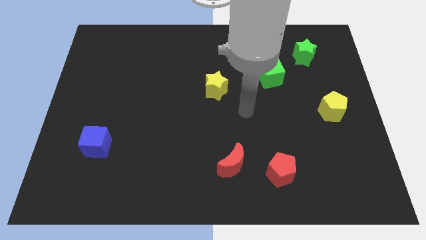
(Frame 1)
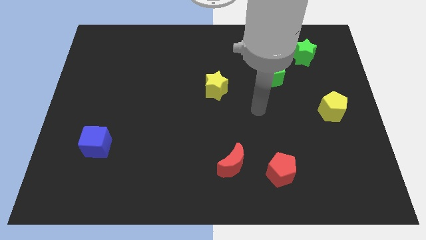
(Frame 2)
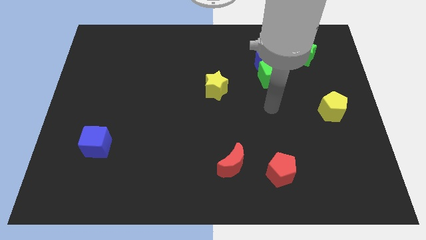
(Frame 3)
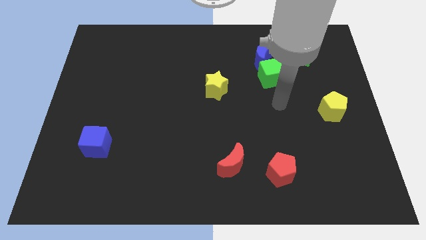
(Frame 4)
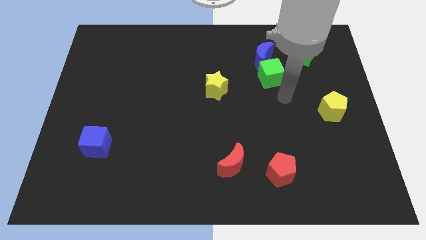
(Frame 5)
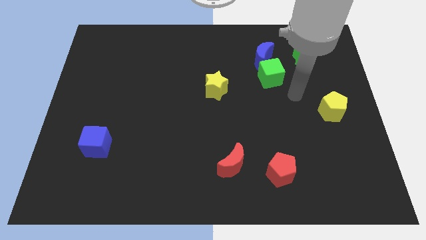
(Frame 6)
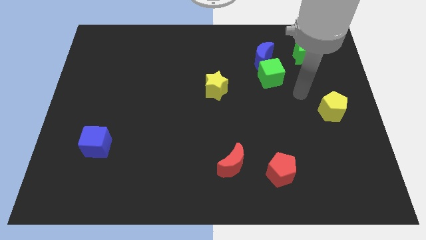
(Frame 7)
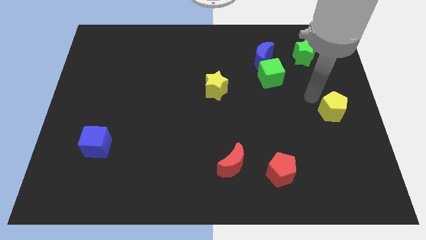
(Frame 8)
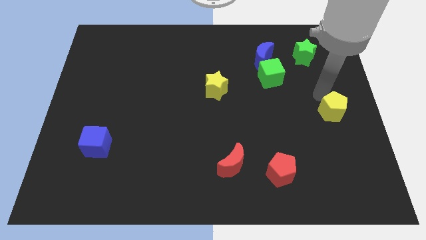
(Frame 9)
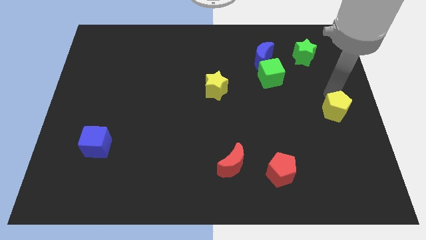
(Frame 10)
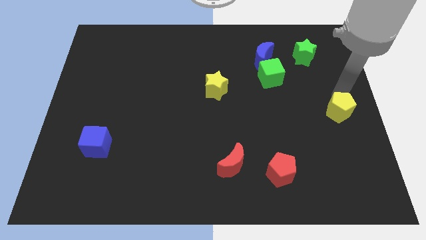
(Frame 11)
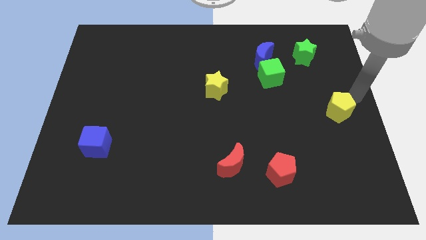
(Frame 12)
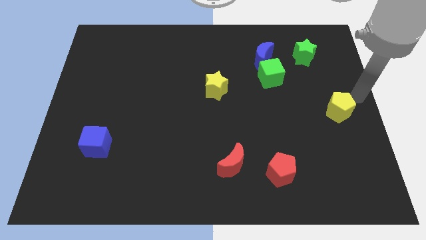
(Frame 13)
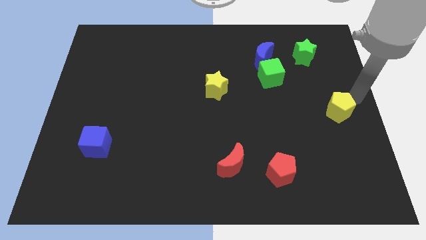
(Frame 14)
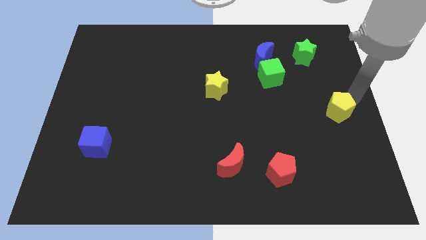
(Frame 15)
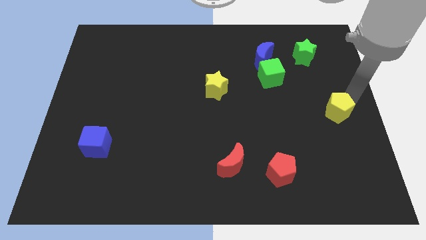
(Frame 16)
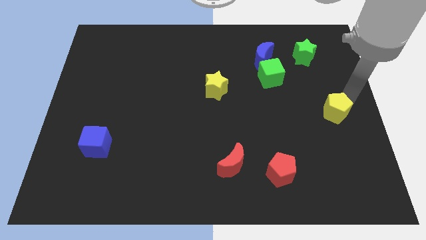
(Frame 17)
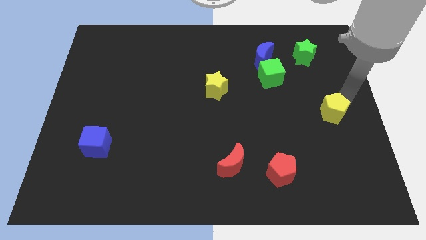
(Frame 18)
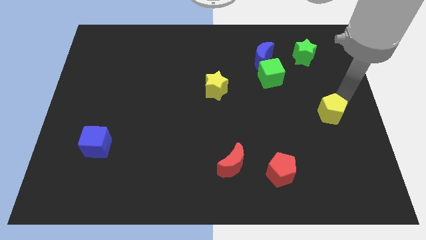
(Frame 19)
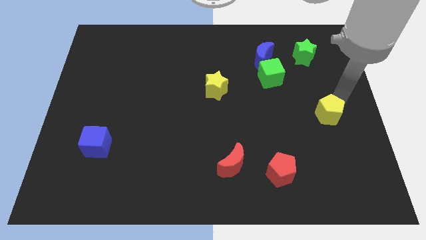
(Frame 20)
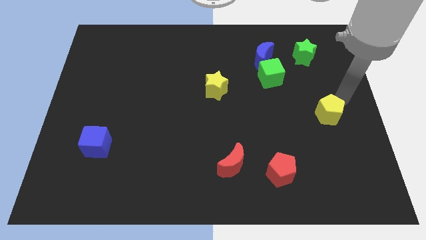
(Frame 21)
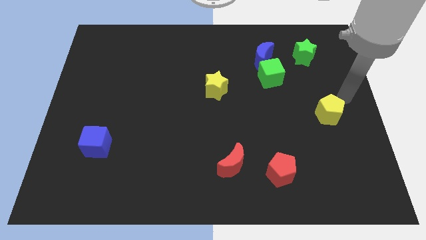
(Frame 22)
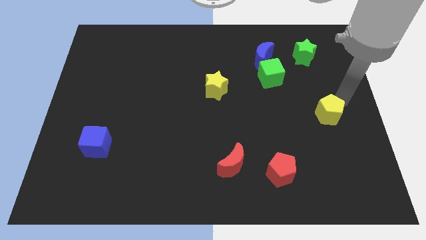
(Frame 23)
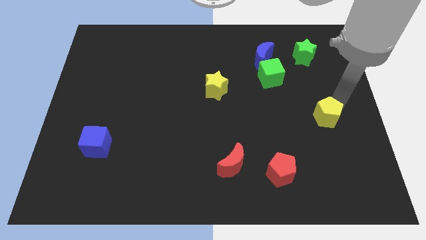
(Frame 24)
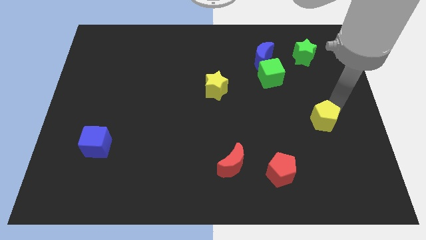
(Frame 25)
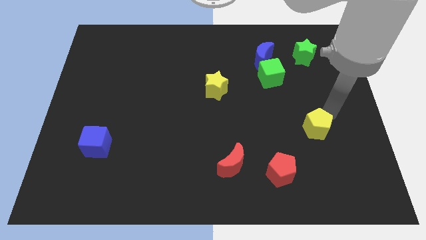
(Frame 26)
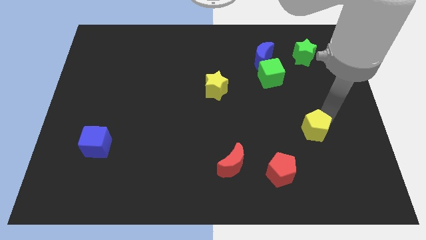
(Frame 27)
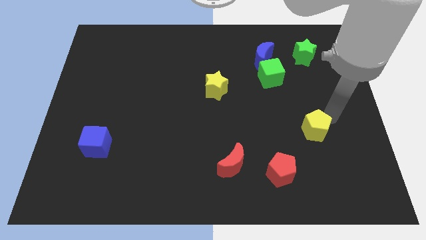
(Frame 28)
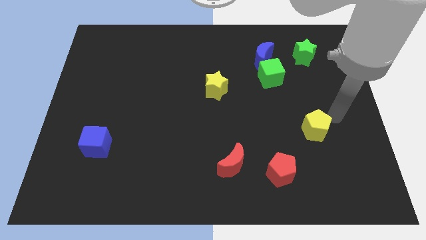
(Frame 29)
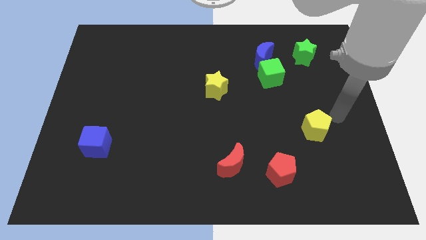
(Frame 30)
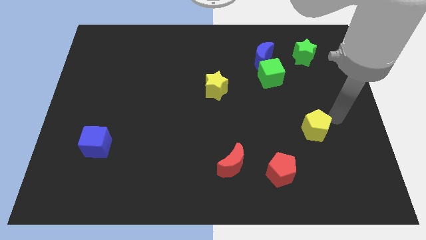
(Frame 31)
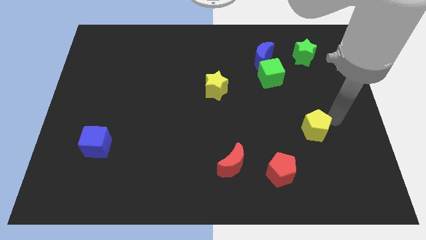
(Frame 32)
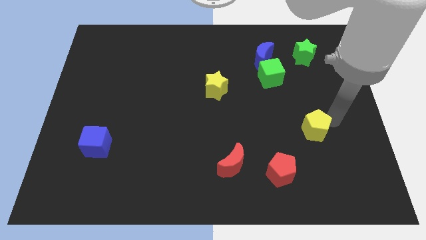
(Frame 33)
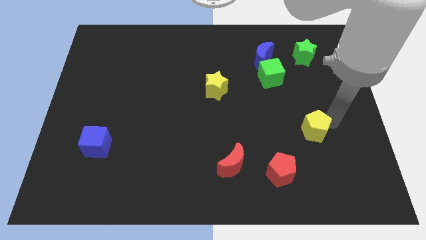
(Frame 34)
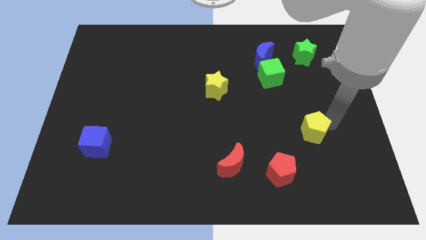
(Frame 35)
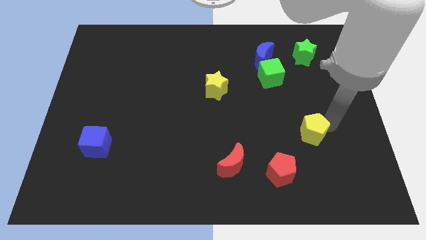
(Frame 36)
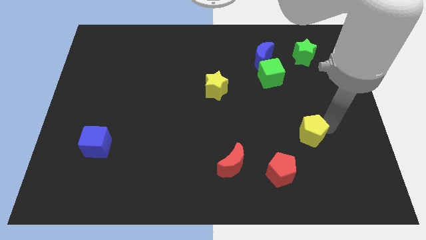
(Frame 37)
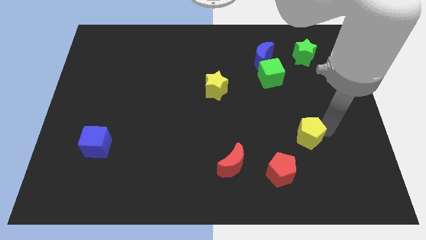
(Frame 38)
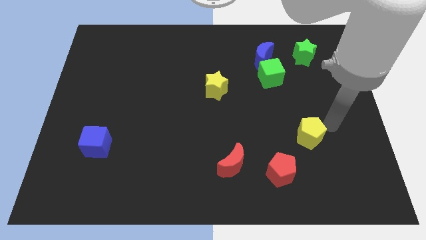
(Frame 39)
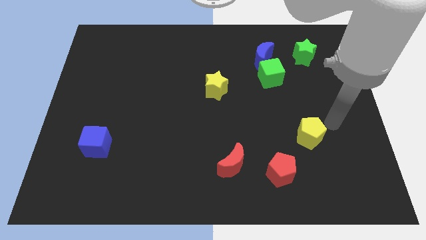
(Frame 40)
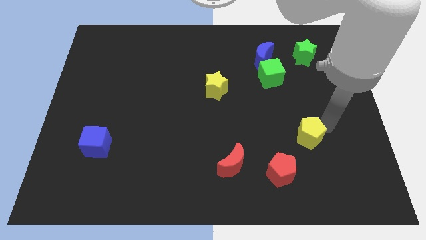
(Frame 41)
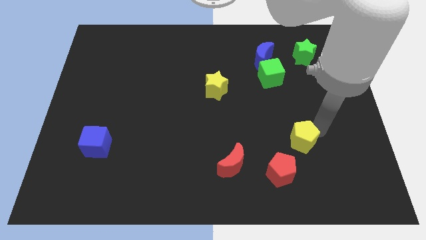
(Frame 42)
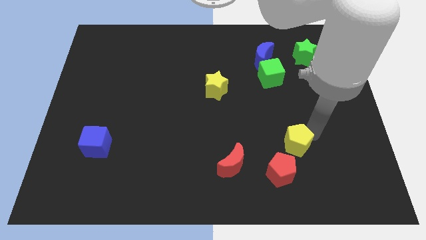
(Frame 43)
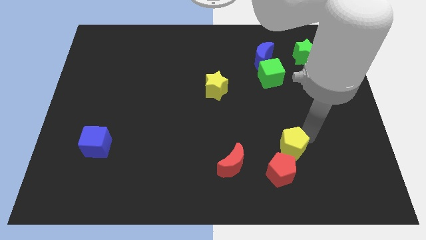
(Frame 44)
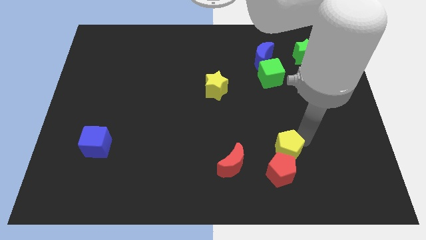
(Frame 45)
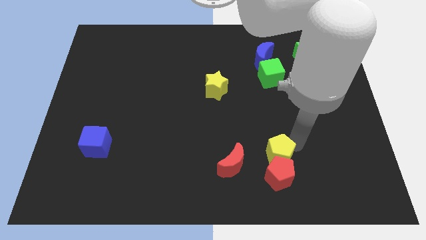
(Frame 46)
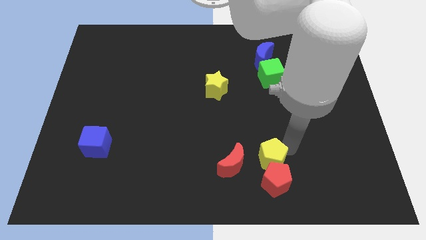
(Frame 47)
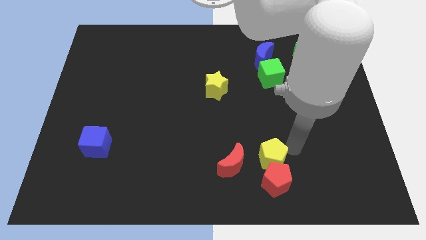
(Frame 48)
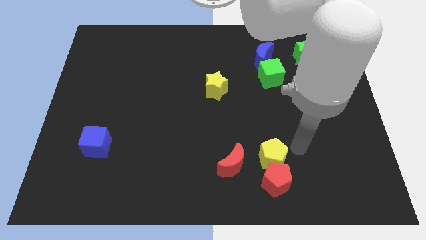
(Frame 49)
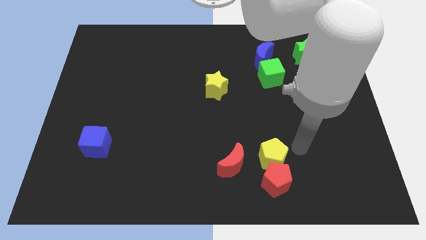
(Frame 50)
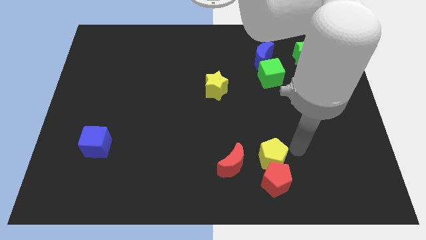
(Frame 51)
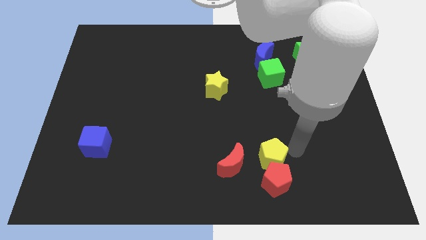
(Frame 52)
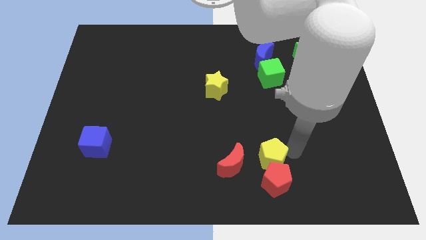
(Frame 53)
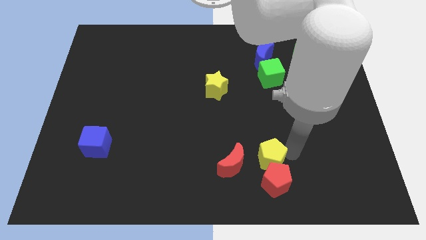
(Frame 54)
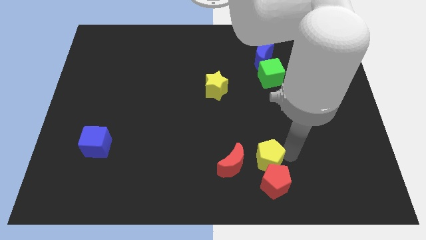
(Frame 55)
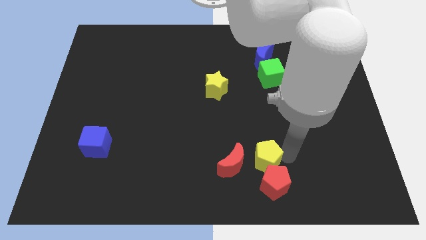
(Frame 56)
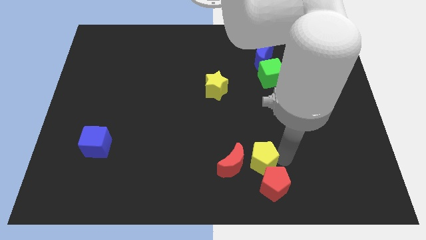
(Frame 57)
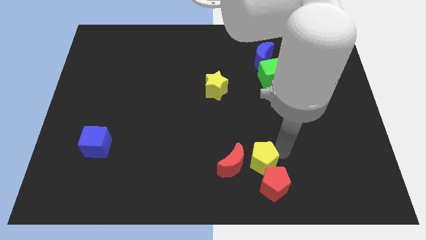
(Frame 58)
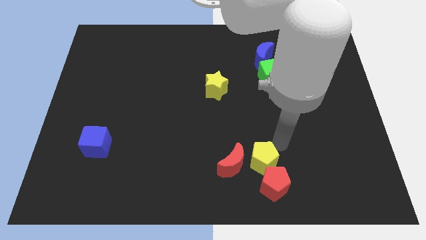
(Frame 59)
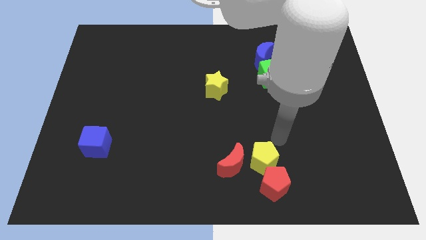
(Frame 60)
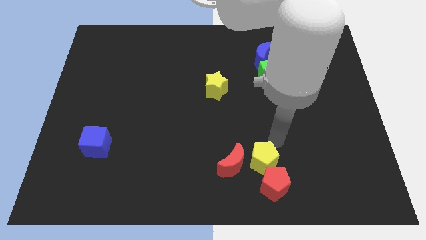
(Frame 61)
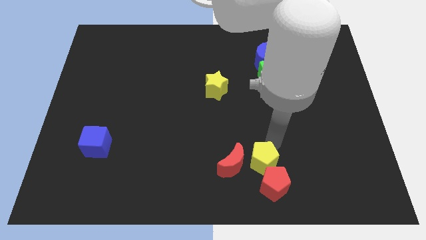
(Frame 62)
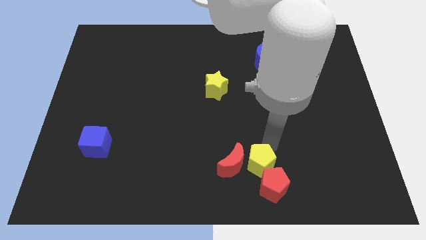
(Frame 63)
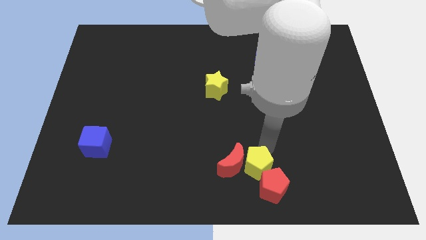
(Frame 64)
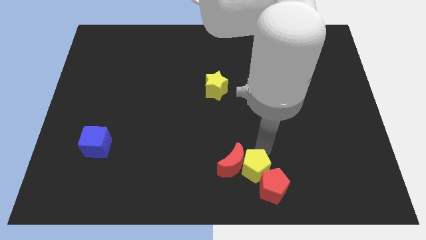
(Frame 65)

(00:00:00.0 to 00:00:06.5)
move the yellow pentagon to the bottom
